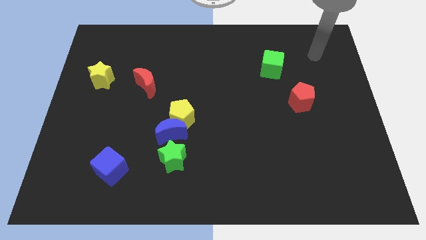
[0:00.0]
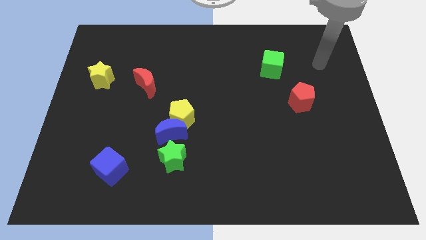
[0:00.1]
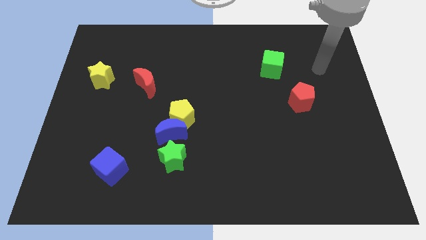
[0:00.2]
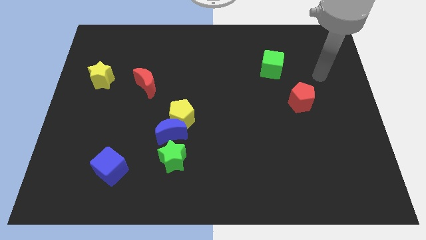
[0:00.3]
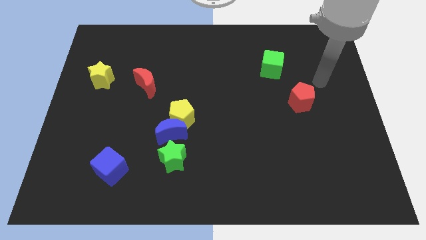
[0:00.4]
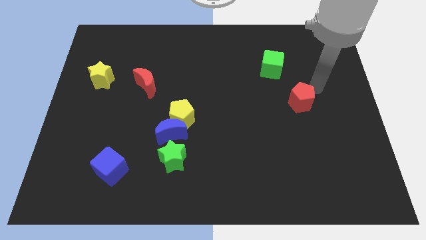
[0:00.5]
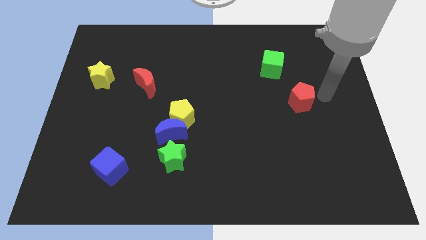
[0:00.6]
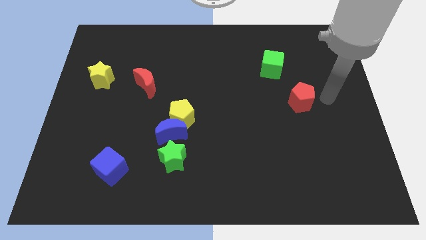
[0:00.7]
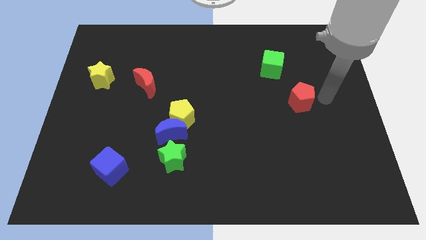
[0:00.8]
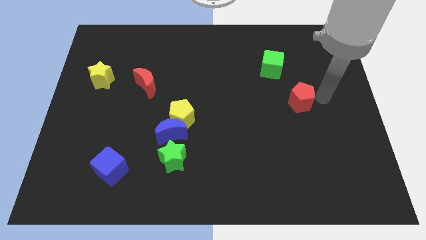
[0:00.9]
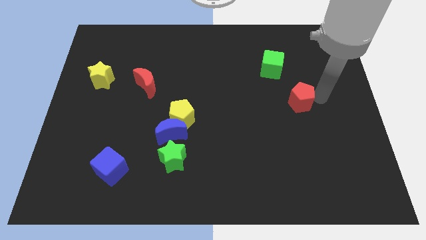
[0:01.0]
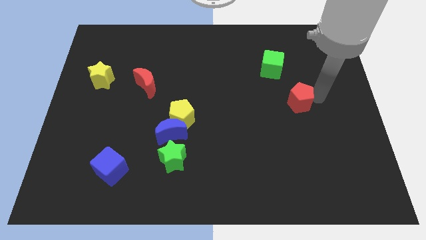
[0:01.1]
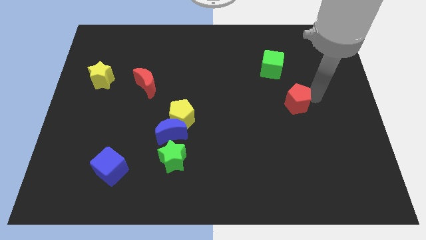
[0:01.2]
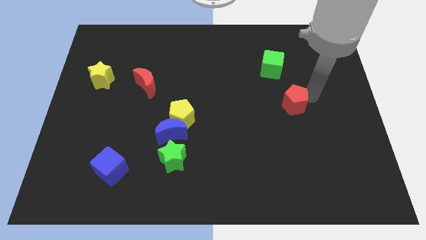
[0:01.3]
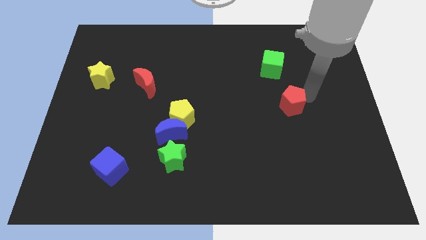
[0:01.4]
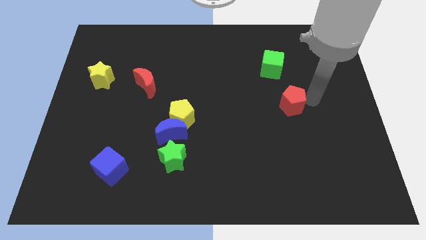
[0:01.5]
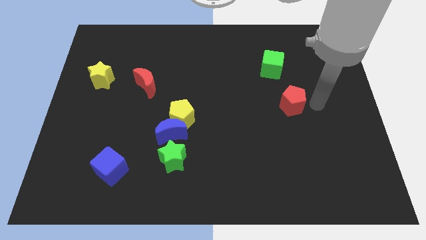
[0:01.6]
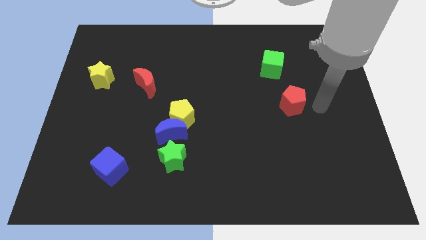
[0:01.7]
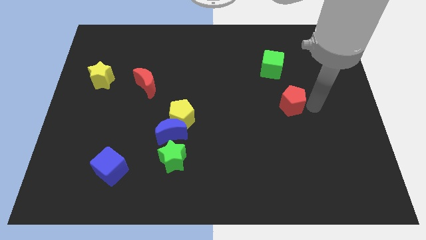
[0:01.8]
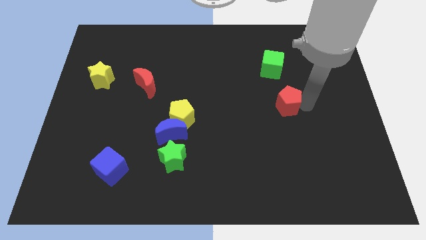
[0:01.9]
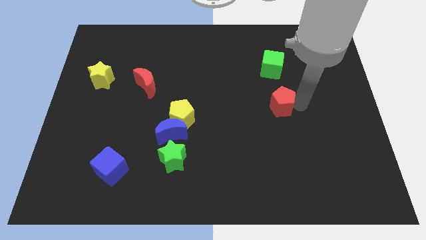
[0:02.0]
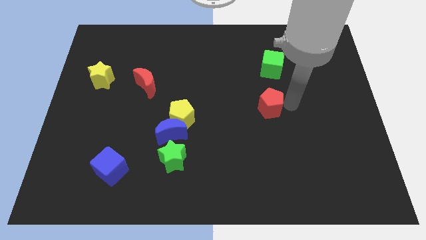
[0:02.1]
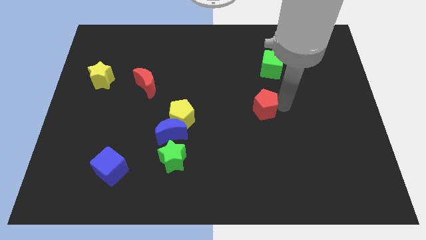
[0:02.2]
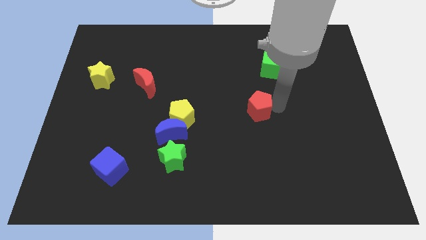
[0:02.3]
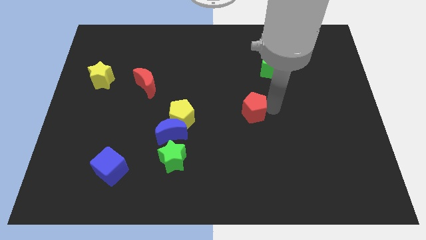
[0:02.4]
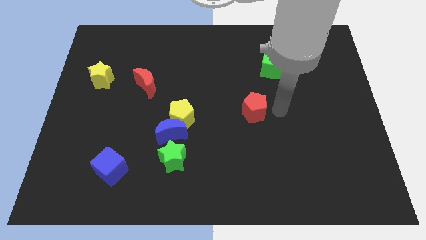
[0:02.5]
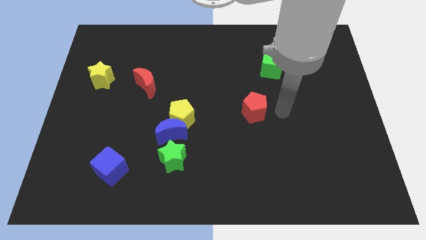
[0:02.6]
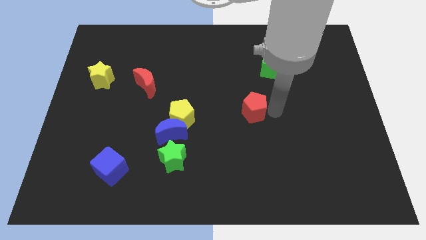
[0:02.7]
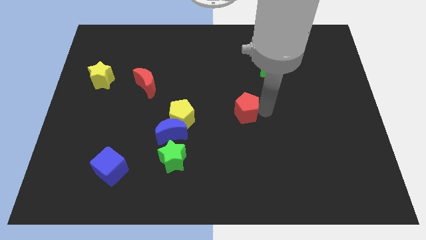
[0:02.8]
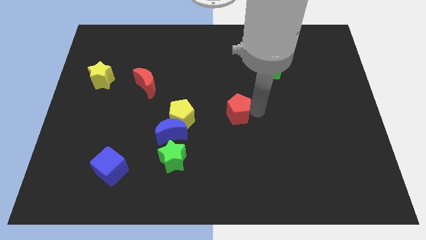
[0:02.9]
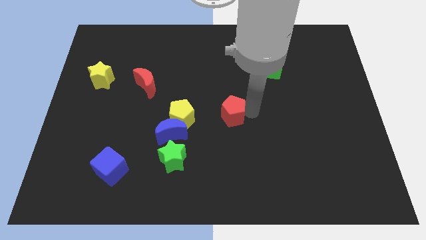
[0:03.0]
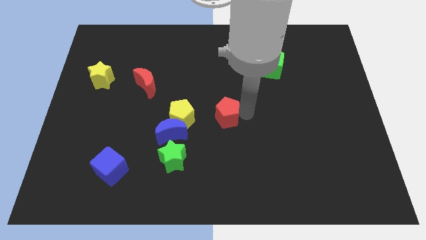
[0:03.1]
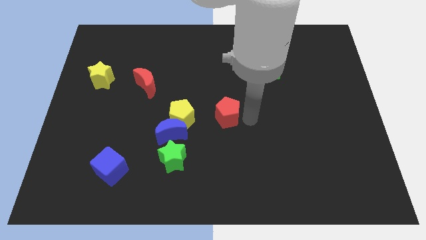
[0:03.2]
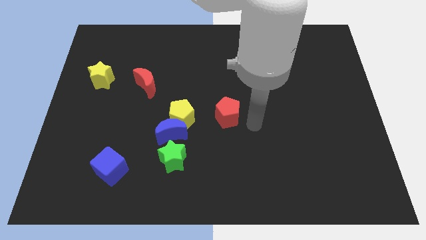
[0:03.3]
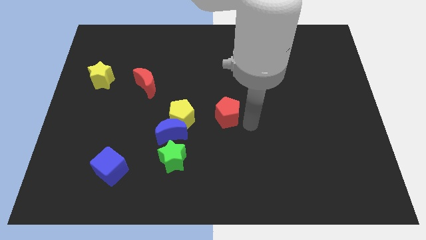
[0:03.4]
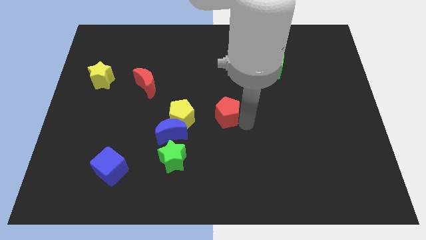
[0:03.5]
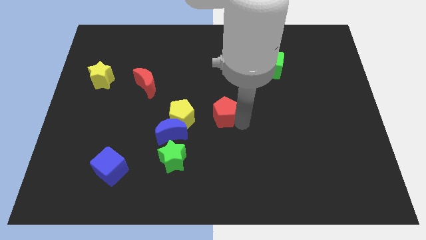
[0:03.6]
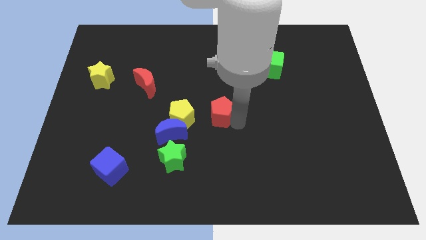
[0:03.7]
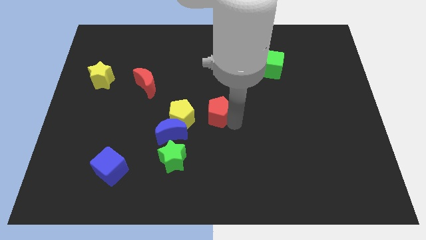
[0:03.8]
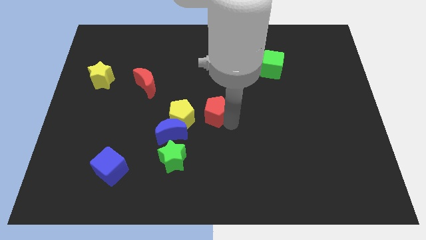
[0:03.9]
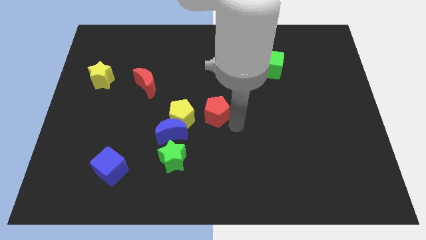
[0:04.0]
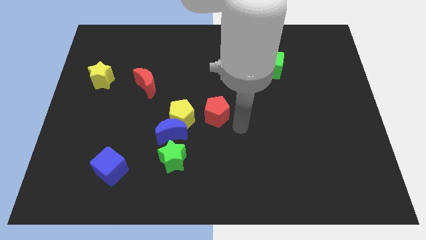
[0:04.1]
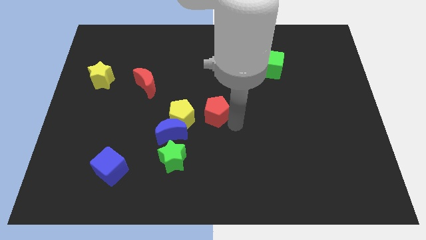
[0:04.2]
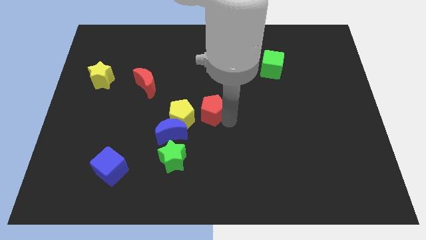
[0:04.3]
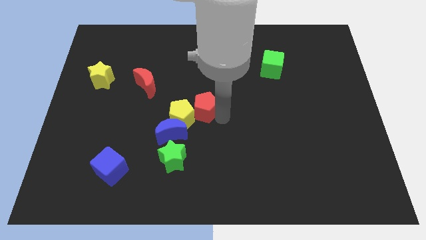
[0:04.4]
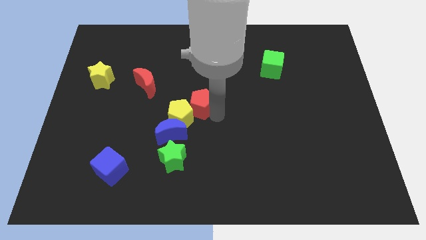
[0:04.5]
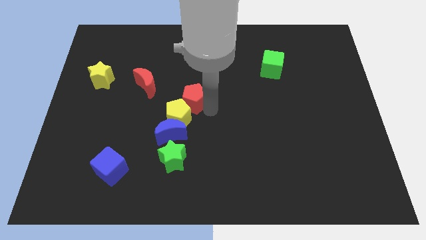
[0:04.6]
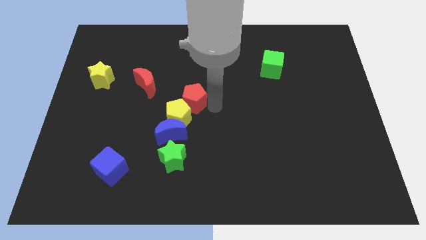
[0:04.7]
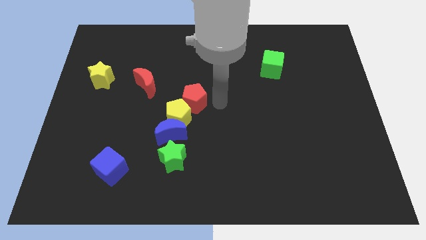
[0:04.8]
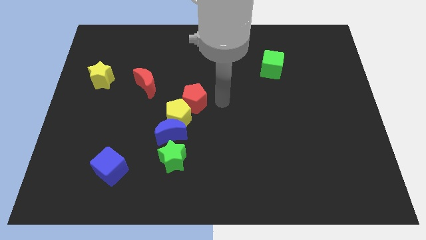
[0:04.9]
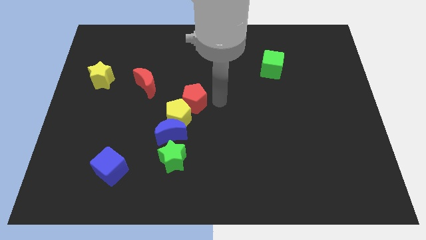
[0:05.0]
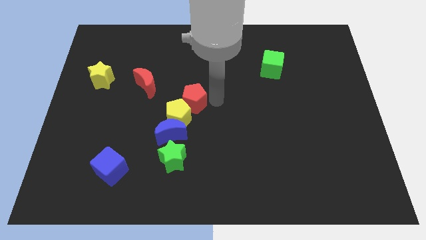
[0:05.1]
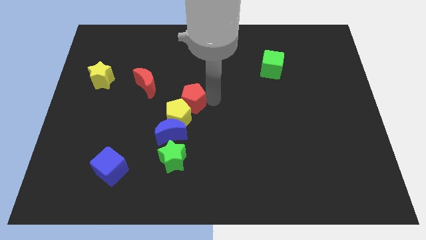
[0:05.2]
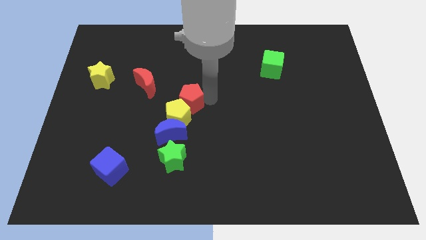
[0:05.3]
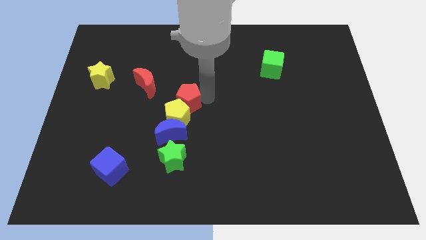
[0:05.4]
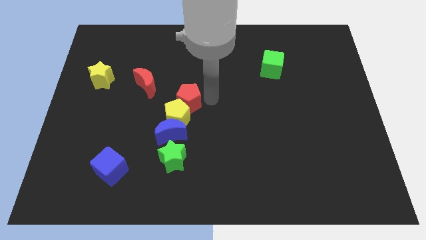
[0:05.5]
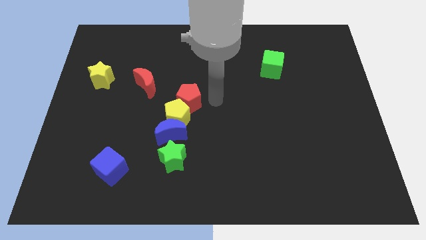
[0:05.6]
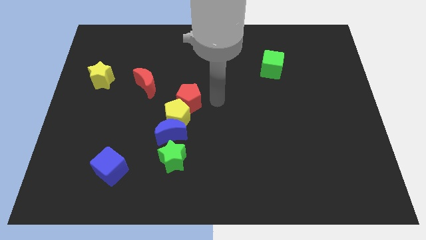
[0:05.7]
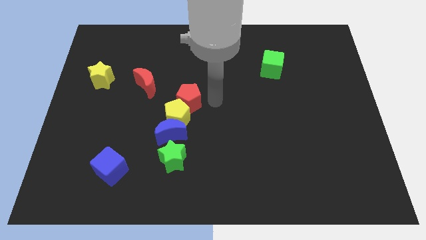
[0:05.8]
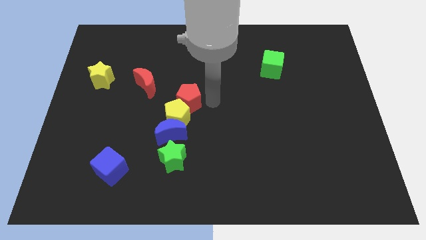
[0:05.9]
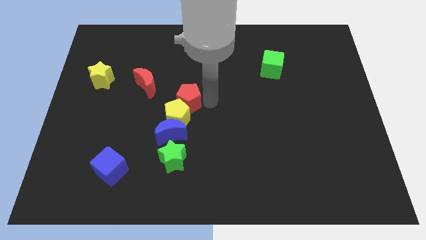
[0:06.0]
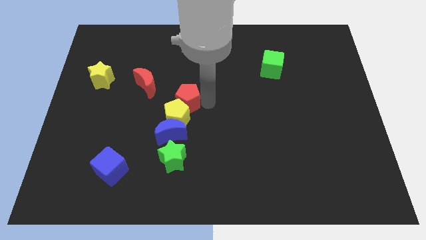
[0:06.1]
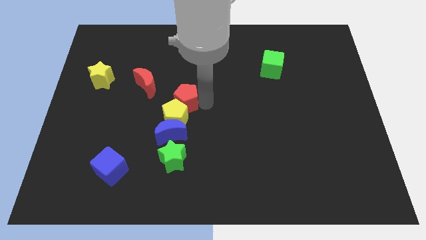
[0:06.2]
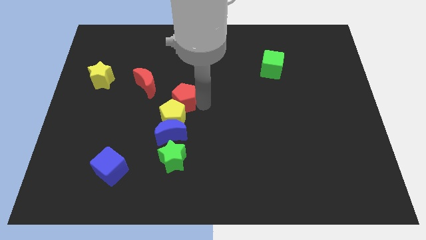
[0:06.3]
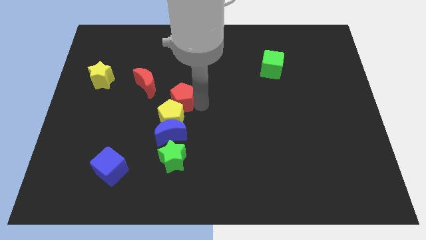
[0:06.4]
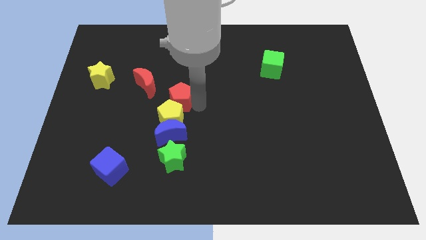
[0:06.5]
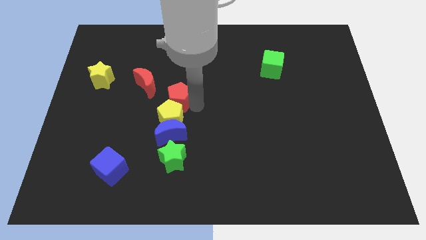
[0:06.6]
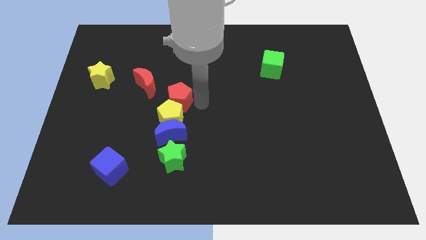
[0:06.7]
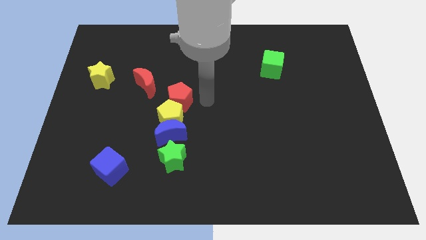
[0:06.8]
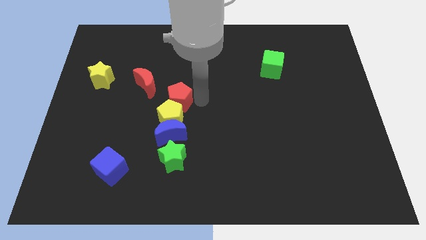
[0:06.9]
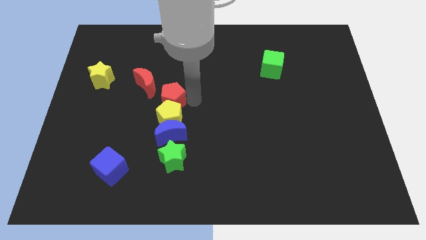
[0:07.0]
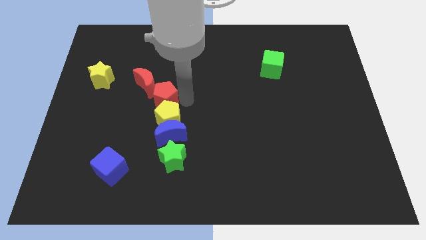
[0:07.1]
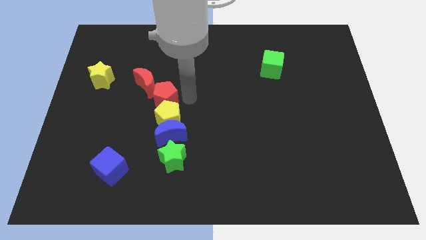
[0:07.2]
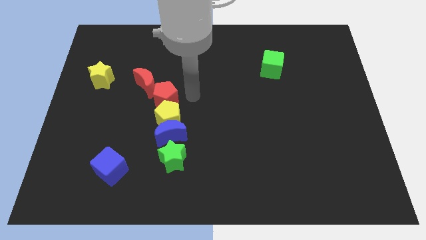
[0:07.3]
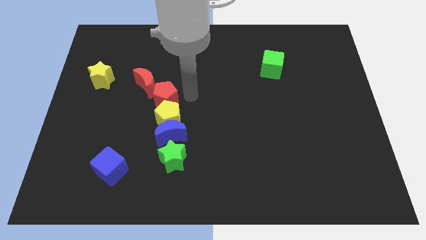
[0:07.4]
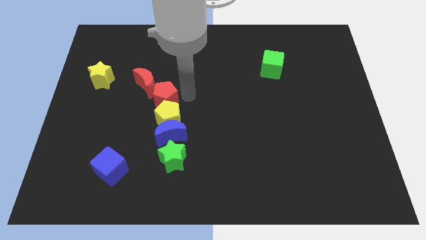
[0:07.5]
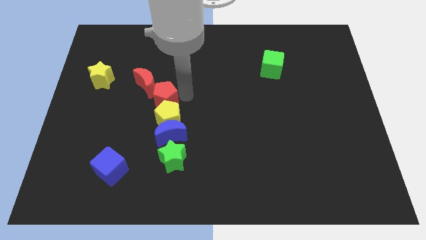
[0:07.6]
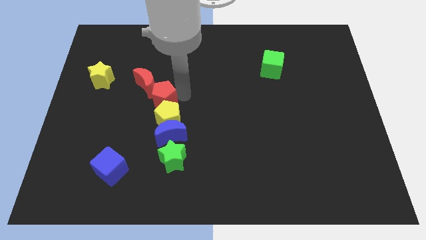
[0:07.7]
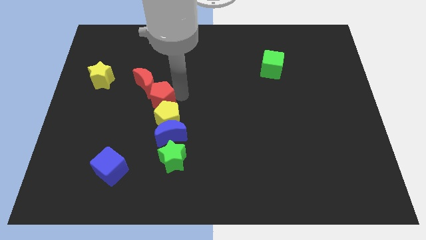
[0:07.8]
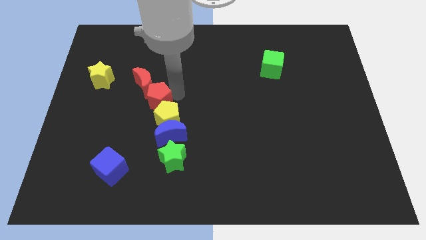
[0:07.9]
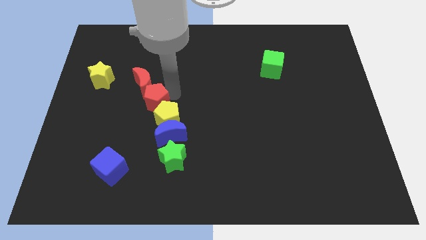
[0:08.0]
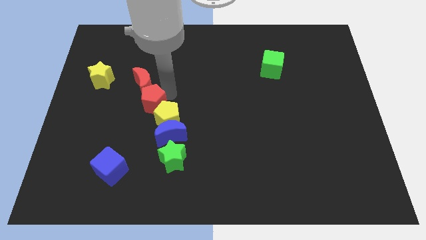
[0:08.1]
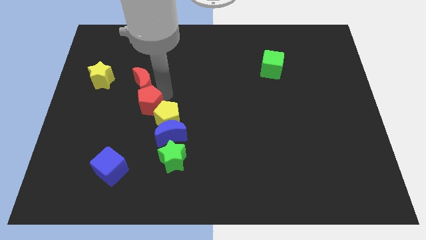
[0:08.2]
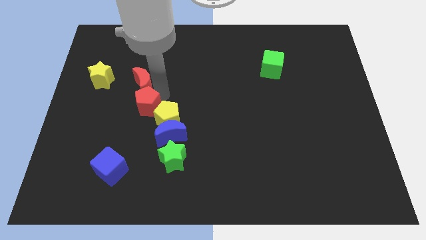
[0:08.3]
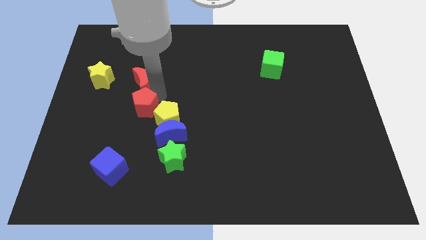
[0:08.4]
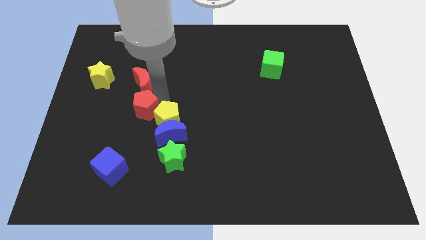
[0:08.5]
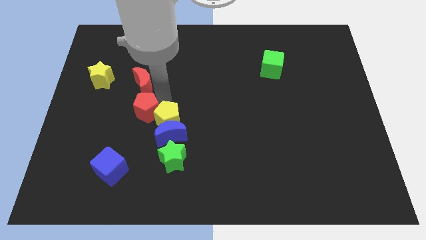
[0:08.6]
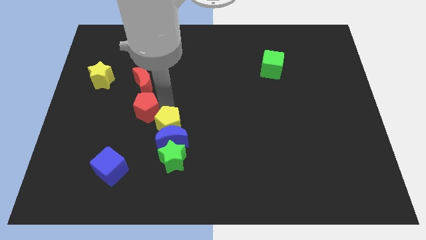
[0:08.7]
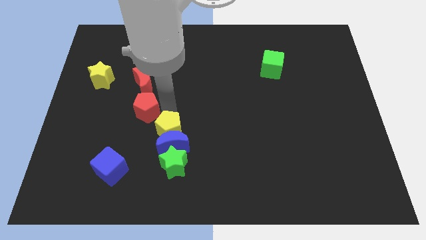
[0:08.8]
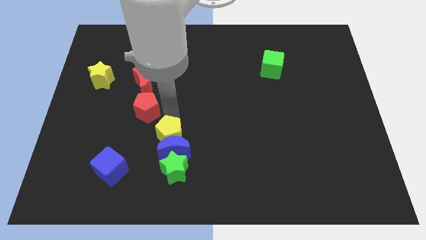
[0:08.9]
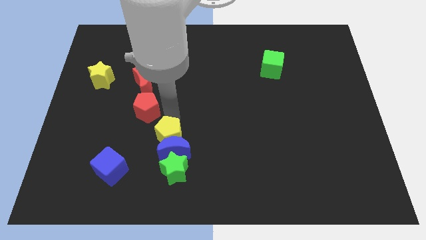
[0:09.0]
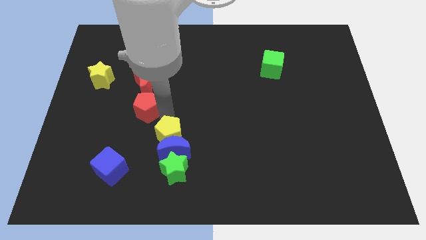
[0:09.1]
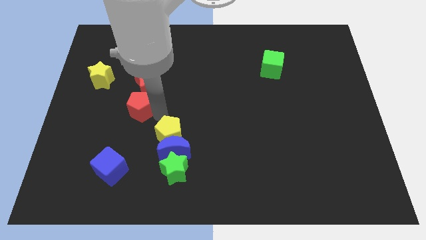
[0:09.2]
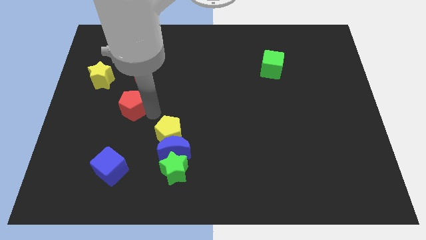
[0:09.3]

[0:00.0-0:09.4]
push the red pentagon diagonally down and to the left of the red moon
